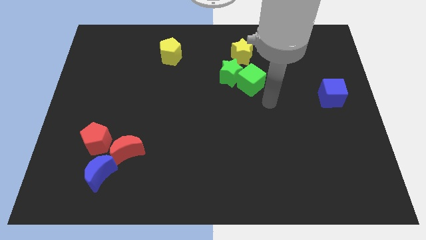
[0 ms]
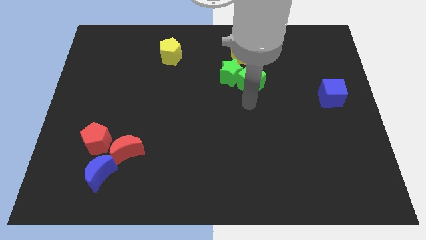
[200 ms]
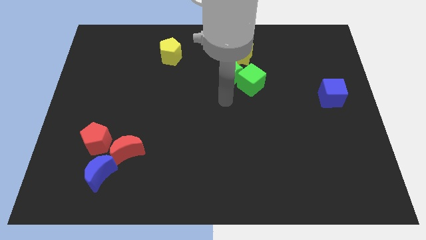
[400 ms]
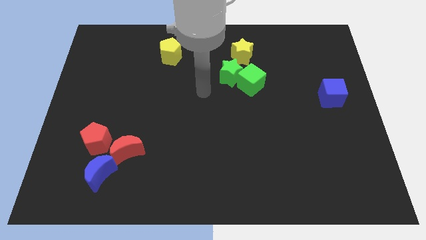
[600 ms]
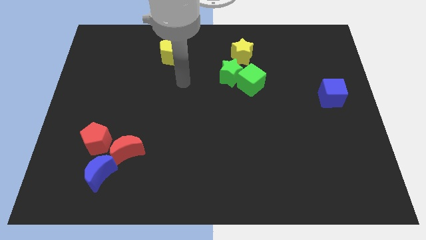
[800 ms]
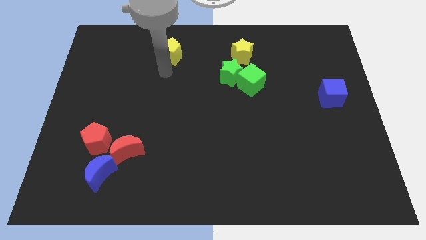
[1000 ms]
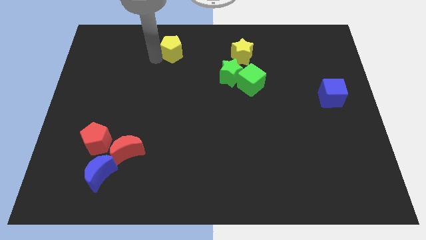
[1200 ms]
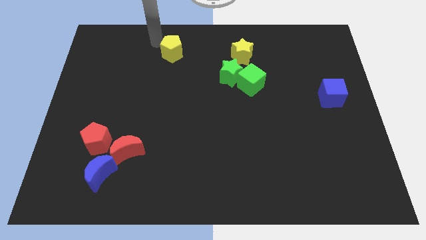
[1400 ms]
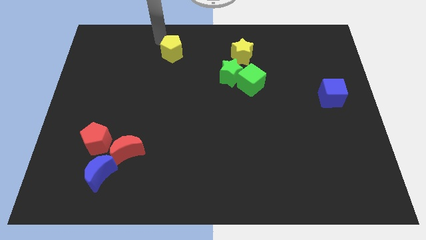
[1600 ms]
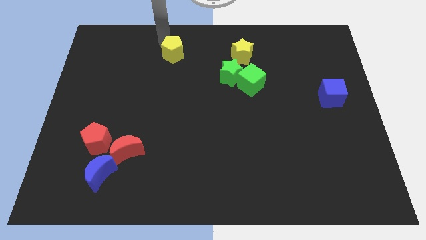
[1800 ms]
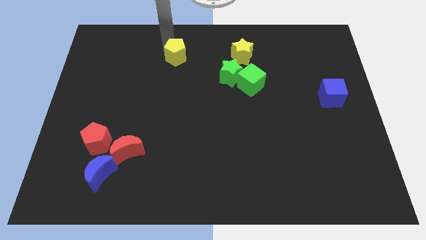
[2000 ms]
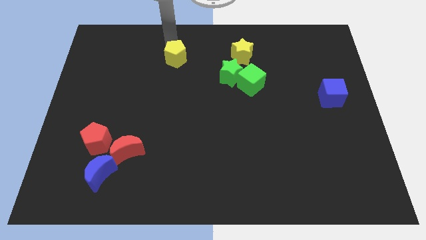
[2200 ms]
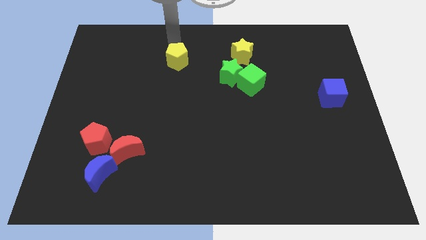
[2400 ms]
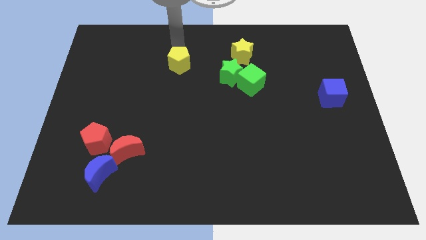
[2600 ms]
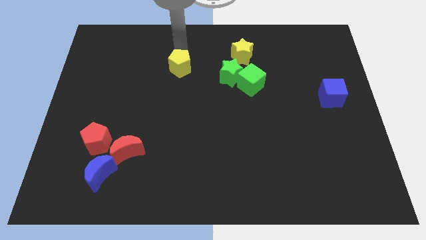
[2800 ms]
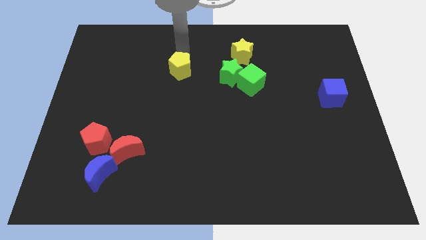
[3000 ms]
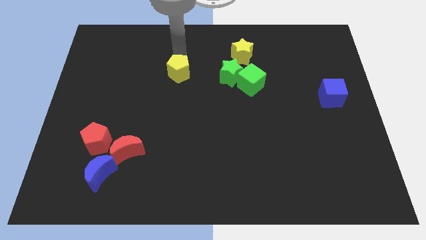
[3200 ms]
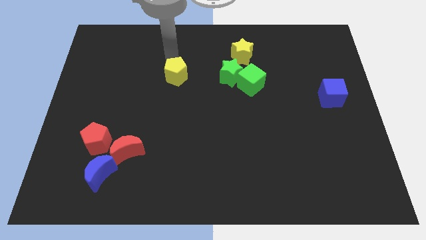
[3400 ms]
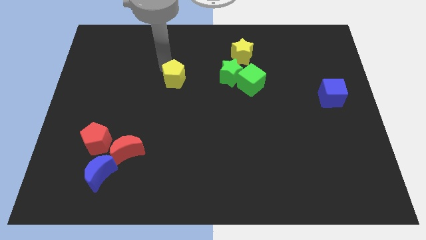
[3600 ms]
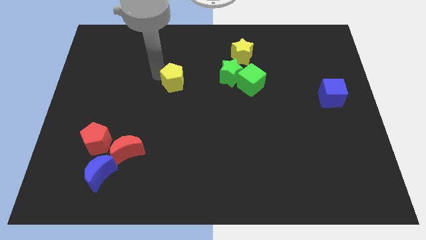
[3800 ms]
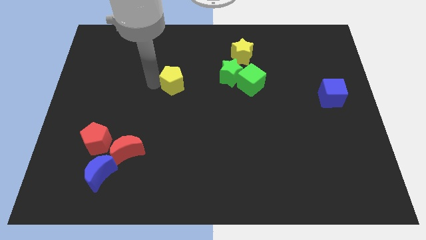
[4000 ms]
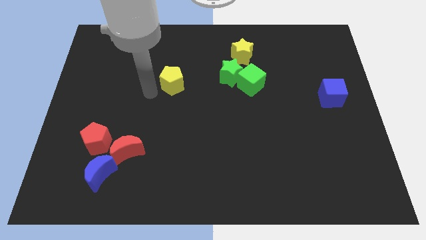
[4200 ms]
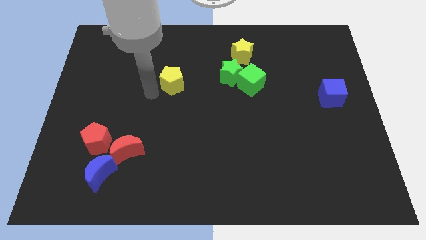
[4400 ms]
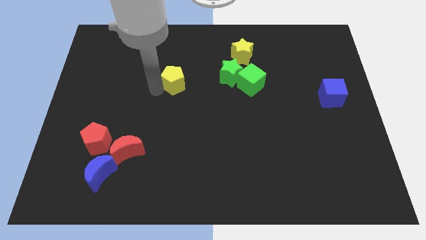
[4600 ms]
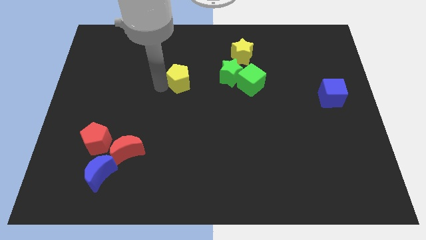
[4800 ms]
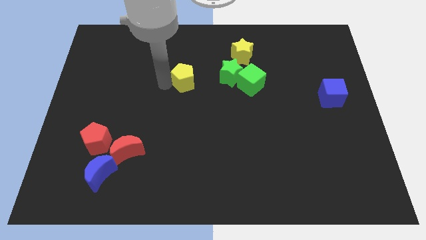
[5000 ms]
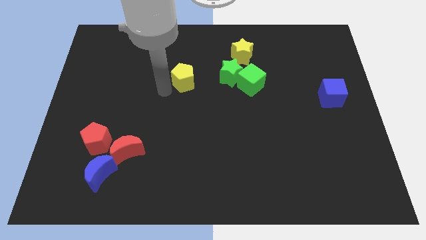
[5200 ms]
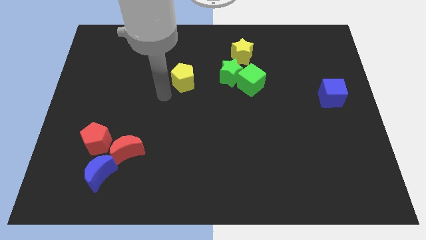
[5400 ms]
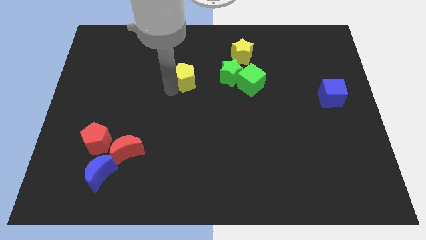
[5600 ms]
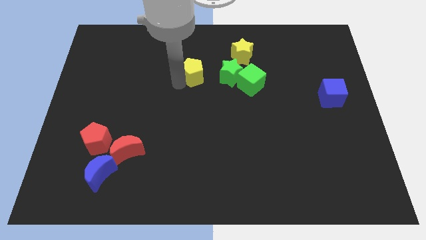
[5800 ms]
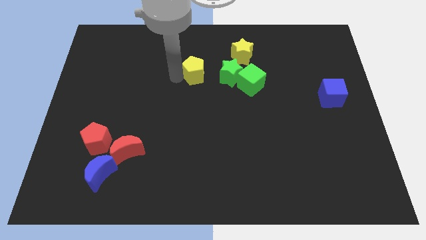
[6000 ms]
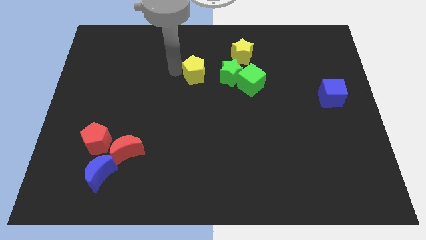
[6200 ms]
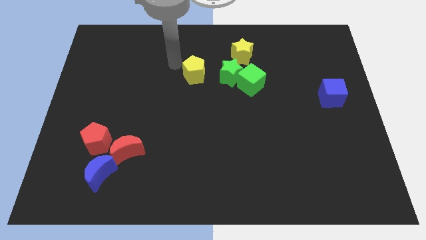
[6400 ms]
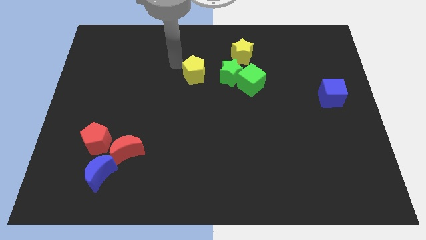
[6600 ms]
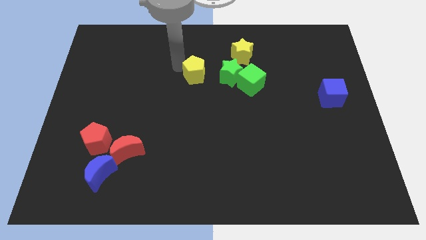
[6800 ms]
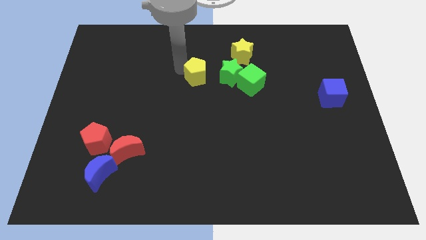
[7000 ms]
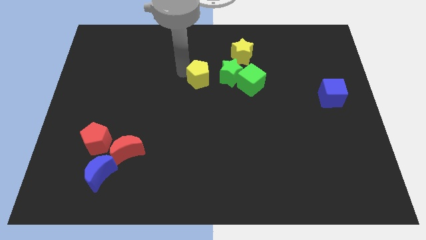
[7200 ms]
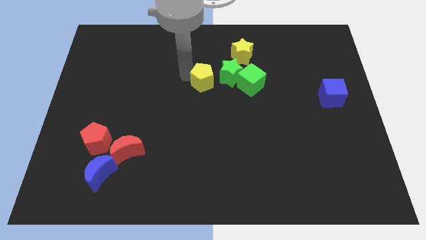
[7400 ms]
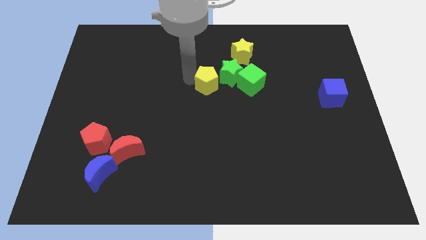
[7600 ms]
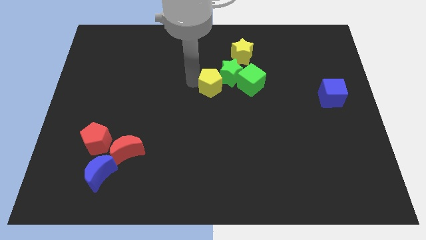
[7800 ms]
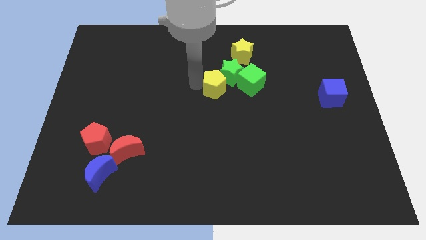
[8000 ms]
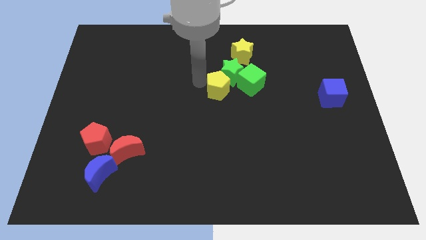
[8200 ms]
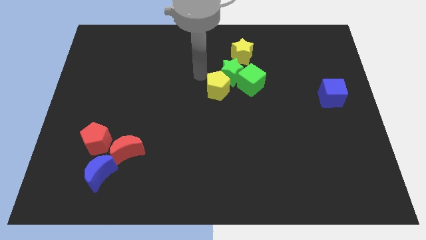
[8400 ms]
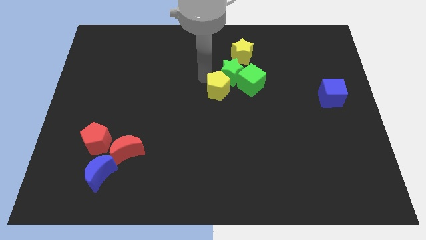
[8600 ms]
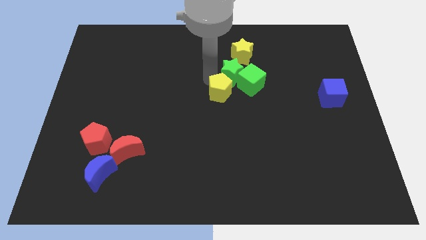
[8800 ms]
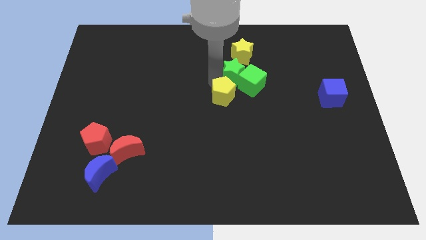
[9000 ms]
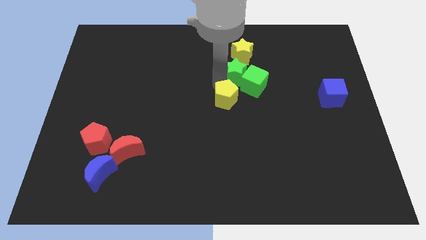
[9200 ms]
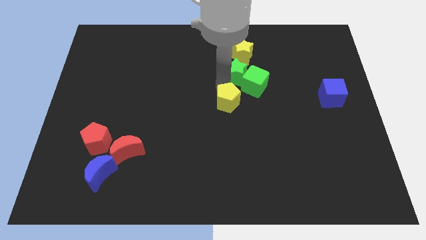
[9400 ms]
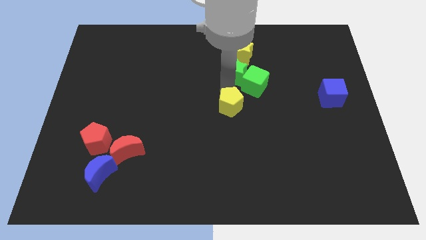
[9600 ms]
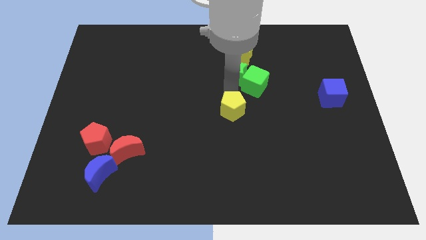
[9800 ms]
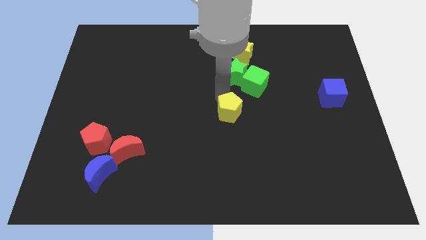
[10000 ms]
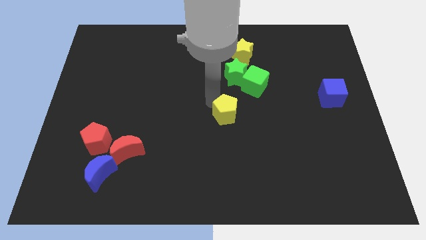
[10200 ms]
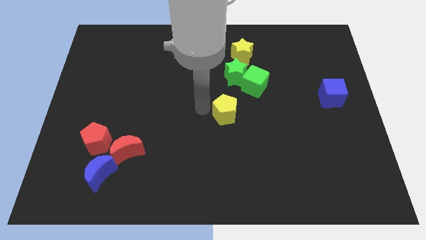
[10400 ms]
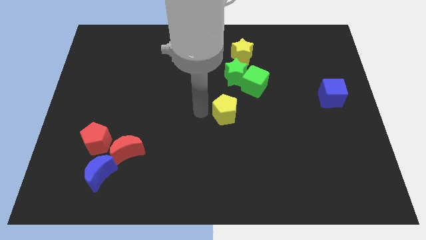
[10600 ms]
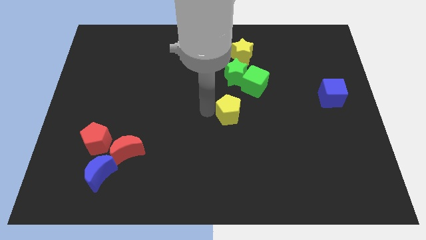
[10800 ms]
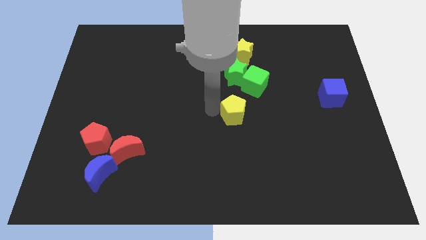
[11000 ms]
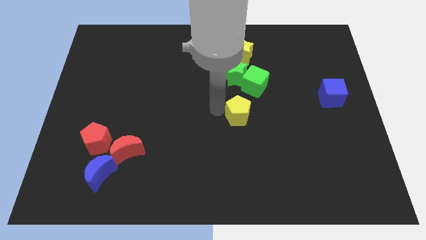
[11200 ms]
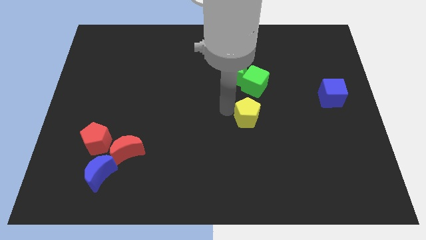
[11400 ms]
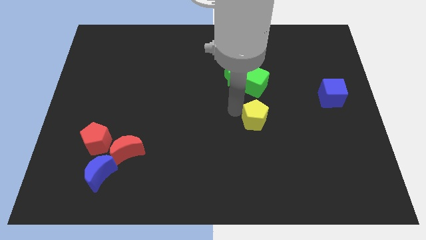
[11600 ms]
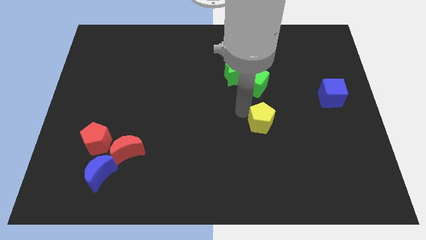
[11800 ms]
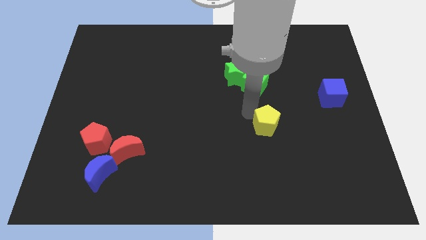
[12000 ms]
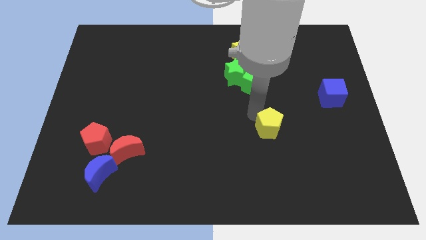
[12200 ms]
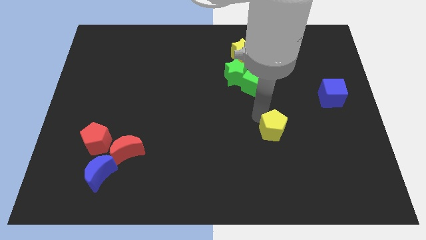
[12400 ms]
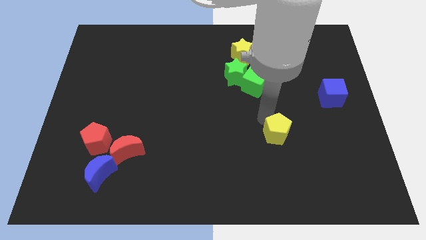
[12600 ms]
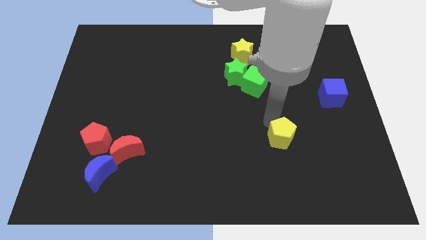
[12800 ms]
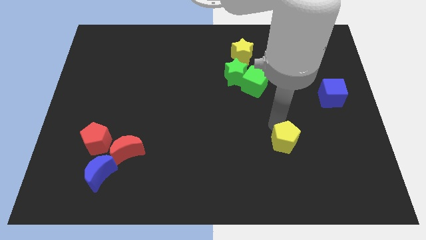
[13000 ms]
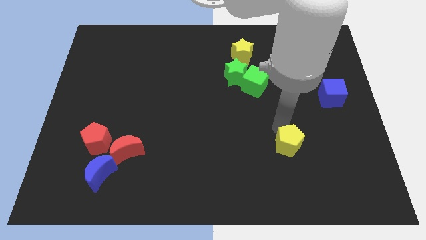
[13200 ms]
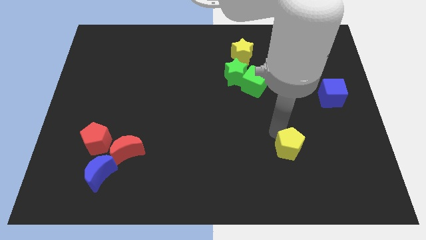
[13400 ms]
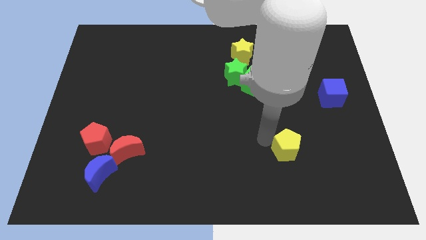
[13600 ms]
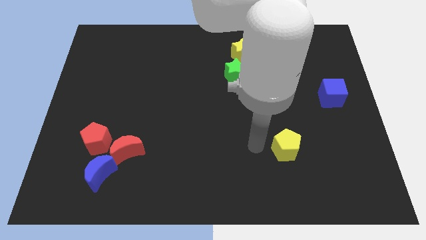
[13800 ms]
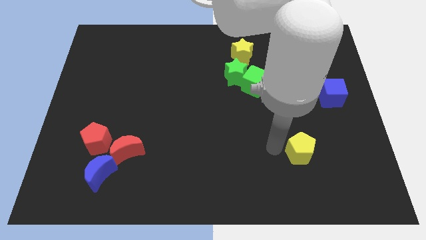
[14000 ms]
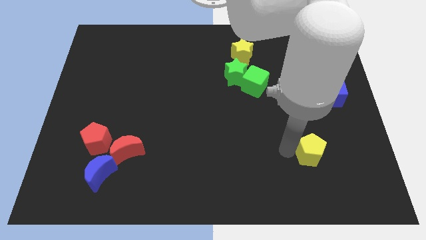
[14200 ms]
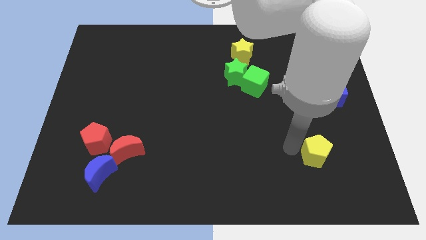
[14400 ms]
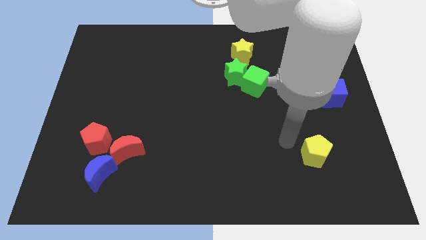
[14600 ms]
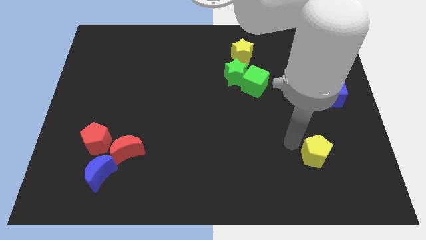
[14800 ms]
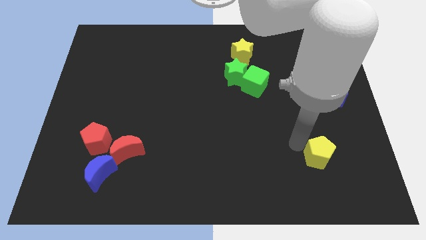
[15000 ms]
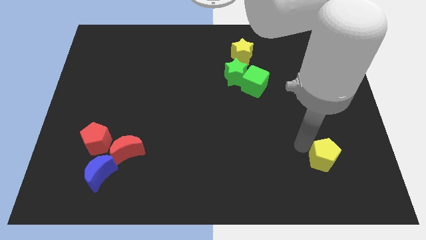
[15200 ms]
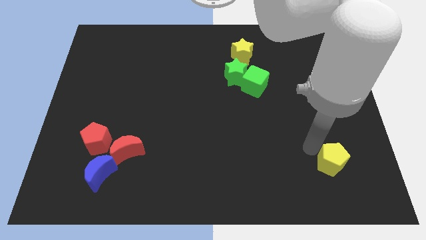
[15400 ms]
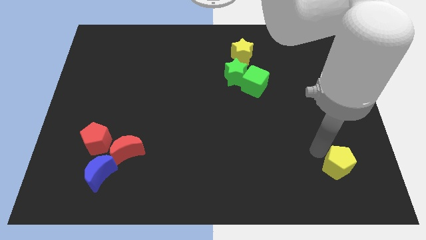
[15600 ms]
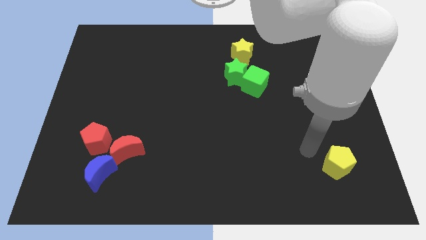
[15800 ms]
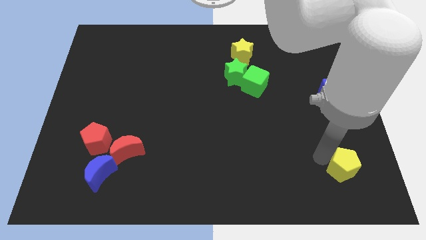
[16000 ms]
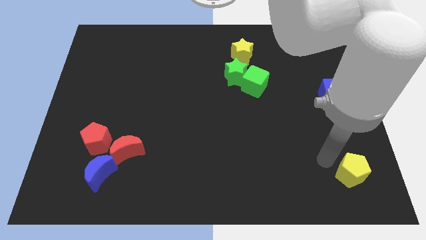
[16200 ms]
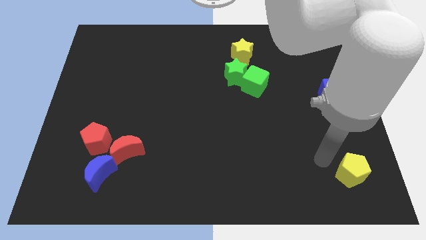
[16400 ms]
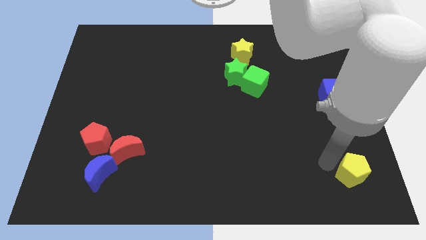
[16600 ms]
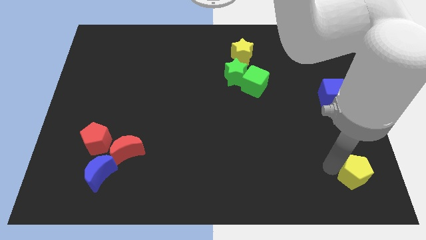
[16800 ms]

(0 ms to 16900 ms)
put the yellow pentagon to the bottom right
